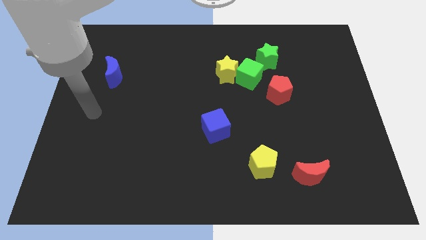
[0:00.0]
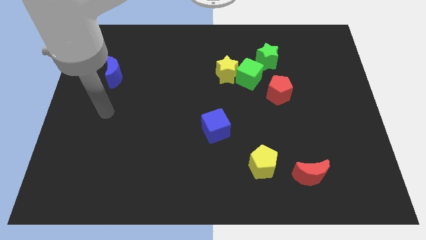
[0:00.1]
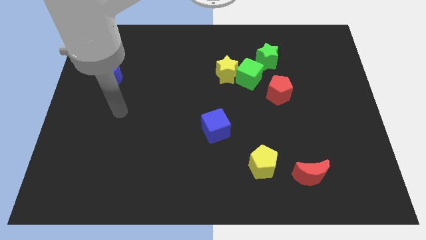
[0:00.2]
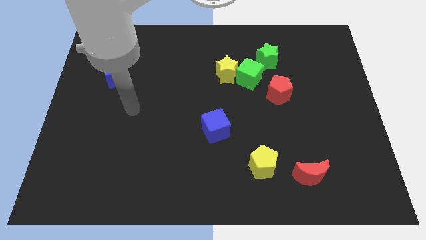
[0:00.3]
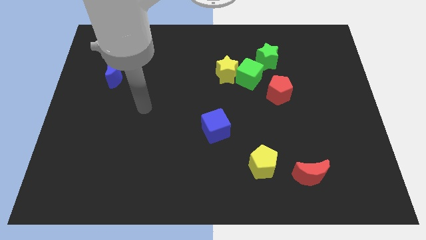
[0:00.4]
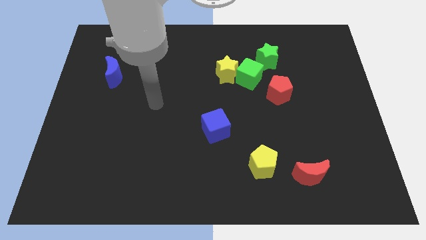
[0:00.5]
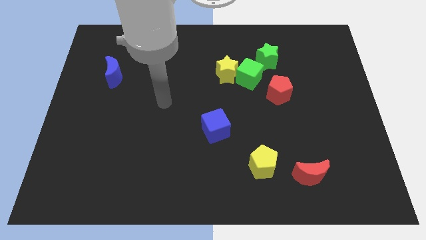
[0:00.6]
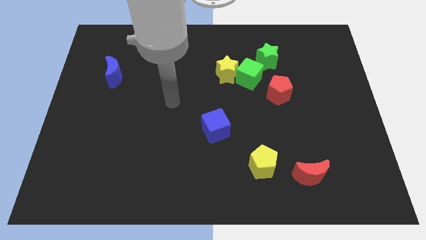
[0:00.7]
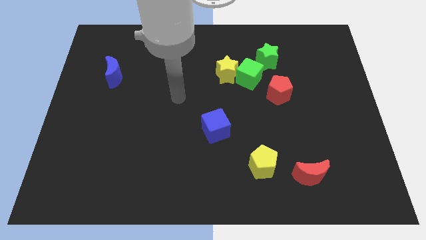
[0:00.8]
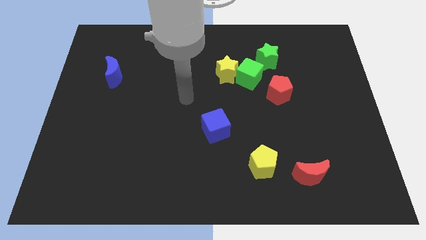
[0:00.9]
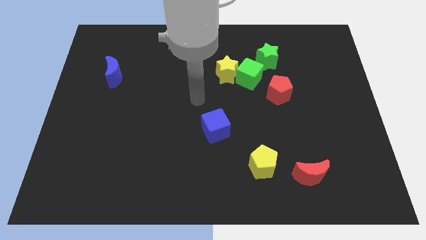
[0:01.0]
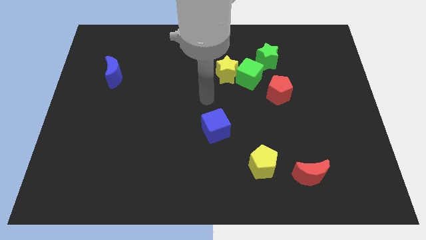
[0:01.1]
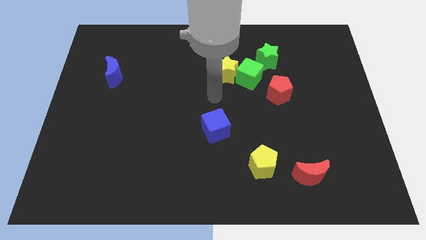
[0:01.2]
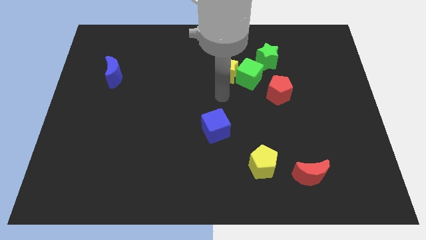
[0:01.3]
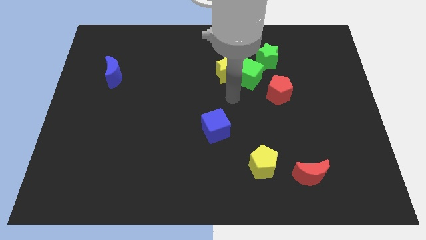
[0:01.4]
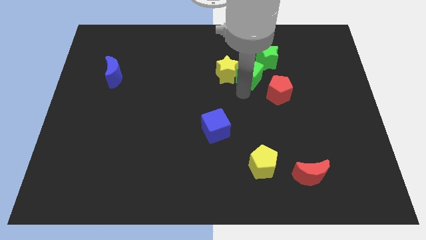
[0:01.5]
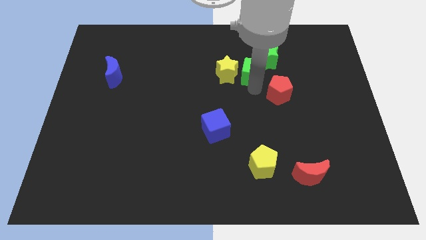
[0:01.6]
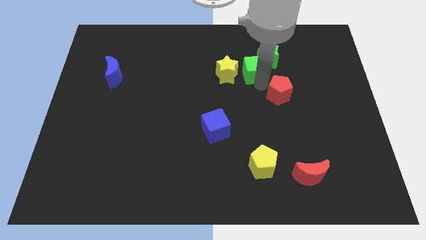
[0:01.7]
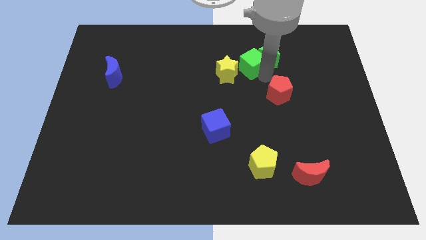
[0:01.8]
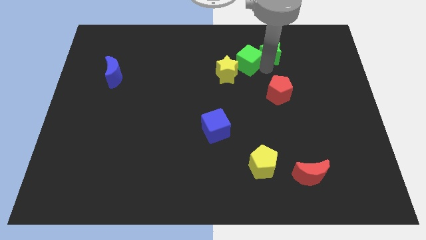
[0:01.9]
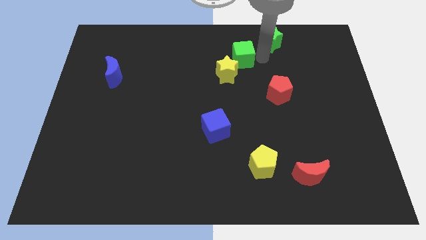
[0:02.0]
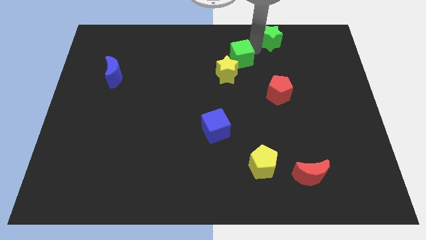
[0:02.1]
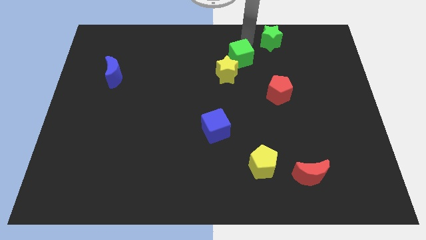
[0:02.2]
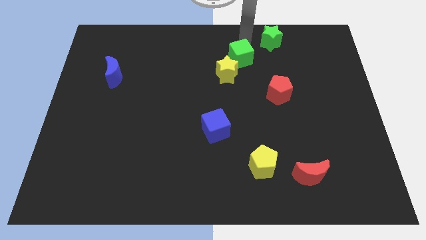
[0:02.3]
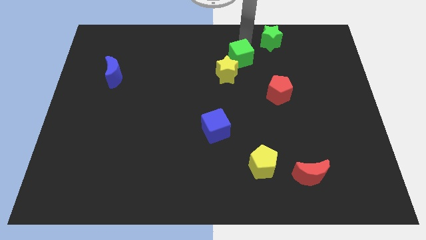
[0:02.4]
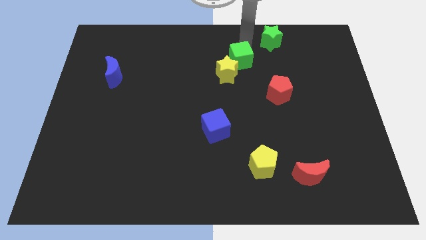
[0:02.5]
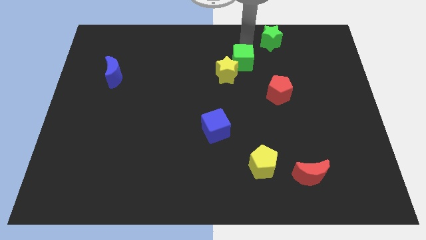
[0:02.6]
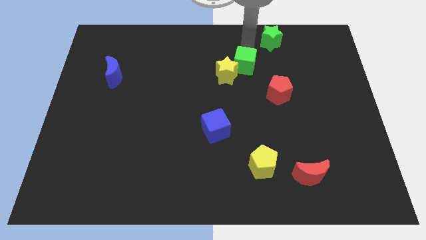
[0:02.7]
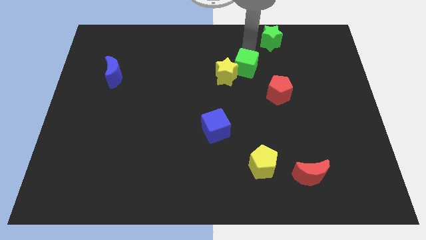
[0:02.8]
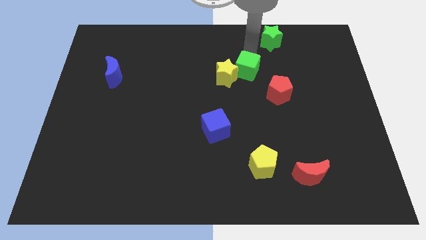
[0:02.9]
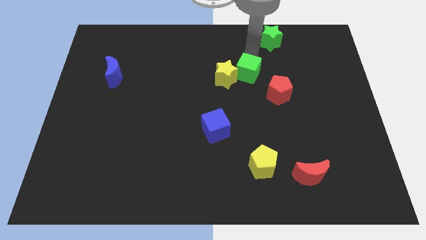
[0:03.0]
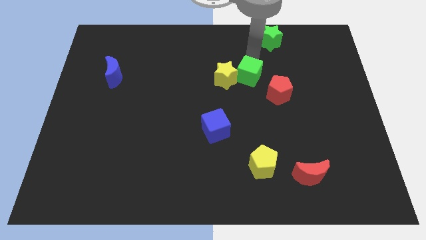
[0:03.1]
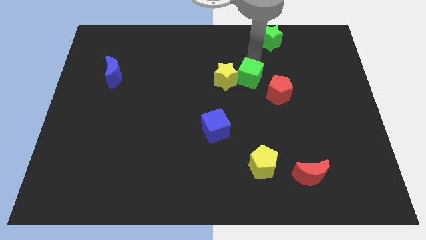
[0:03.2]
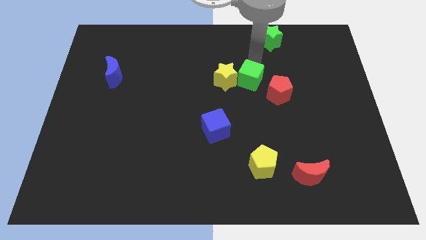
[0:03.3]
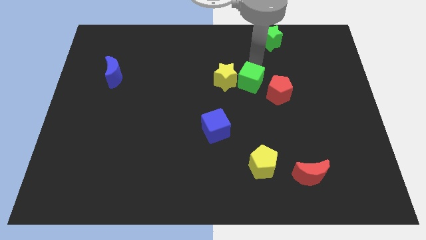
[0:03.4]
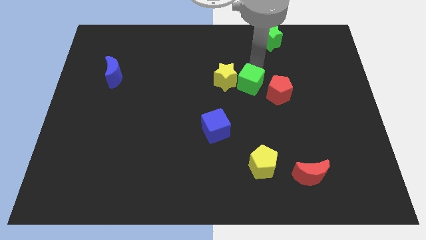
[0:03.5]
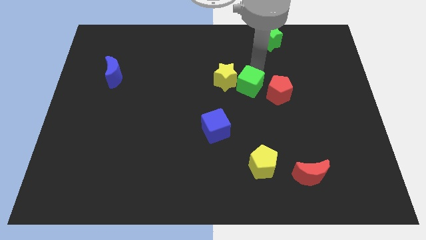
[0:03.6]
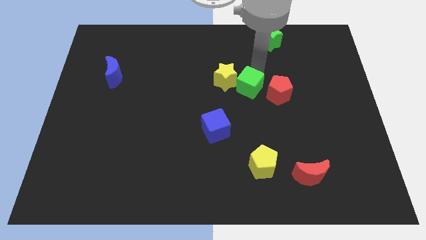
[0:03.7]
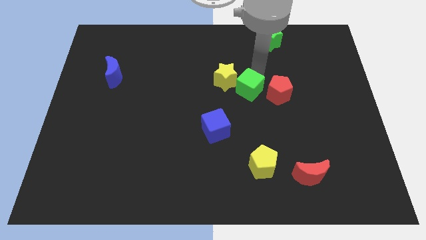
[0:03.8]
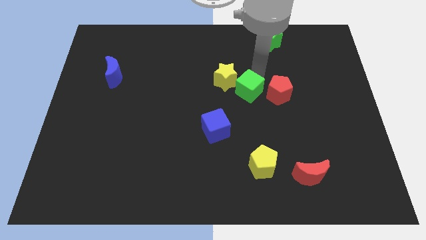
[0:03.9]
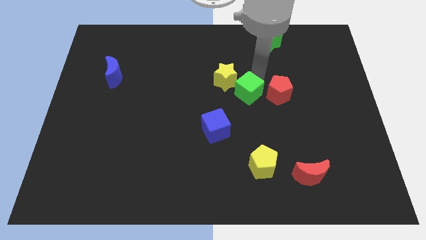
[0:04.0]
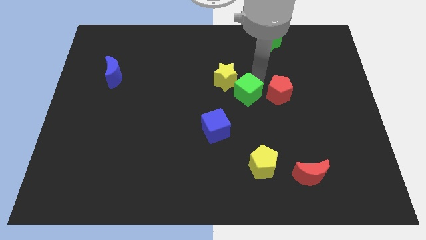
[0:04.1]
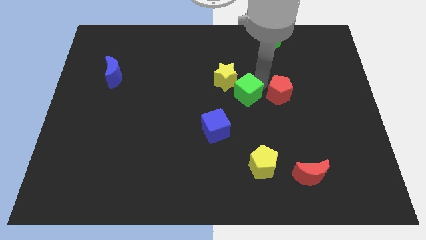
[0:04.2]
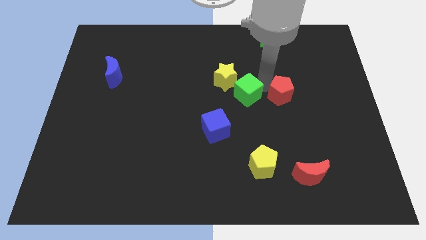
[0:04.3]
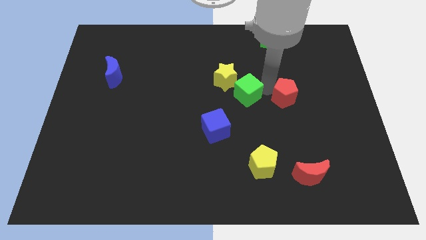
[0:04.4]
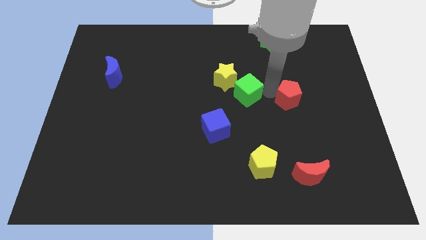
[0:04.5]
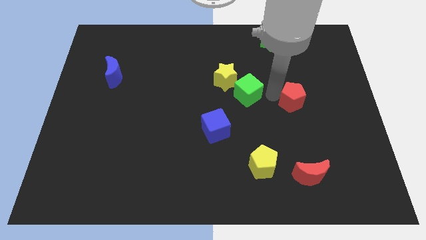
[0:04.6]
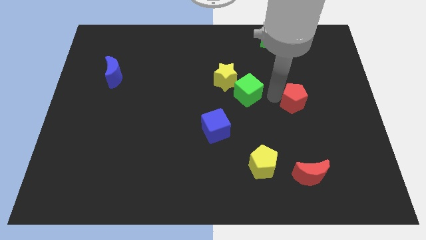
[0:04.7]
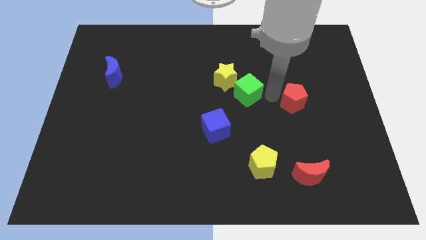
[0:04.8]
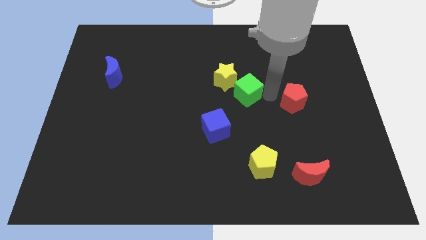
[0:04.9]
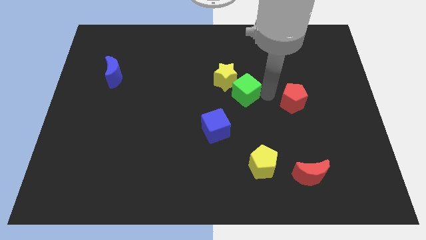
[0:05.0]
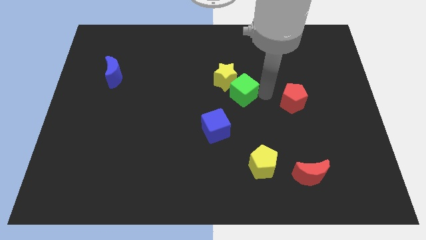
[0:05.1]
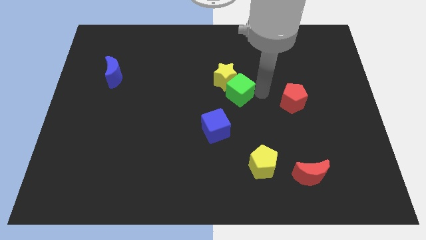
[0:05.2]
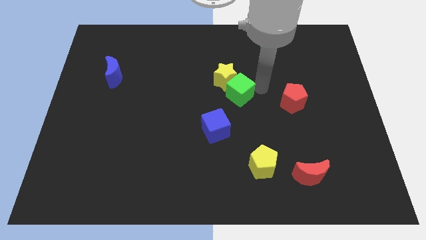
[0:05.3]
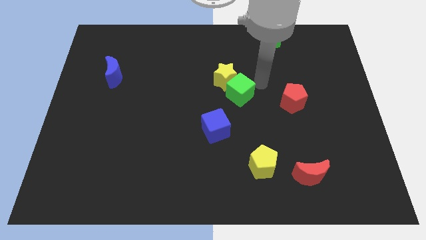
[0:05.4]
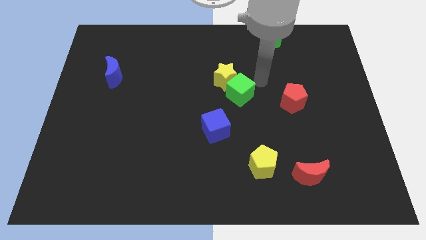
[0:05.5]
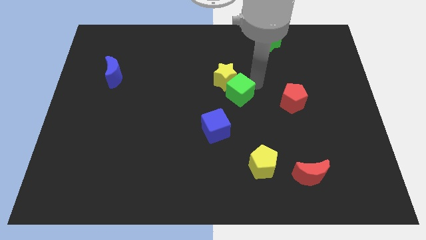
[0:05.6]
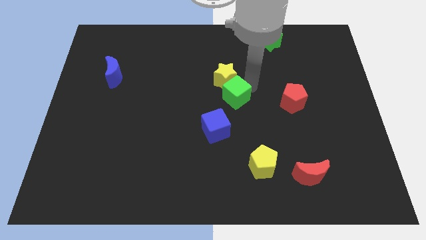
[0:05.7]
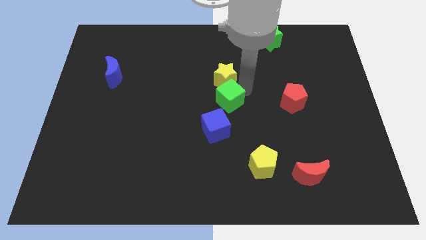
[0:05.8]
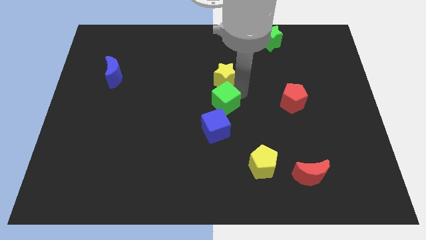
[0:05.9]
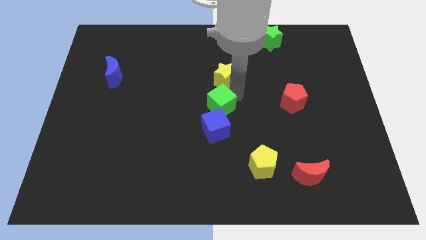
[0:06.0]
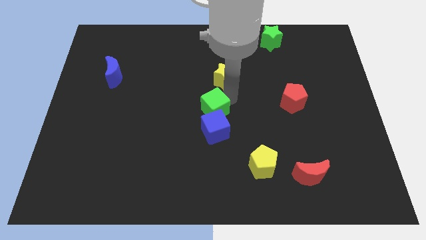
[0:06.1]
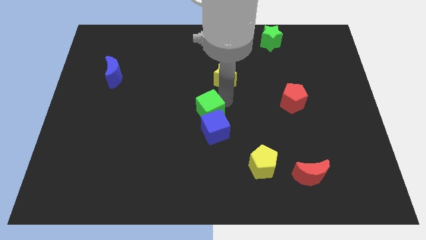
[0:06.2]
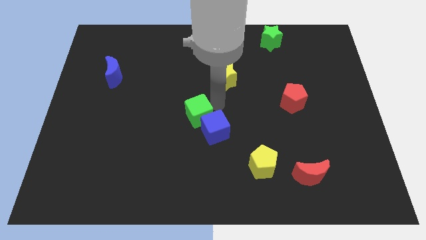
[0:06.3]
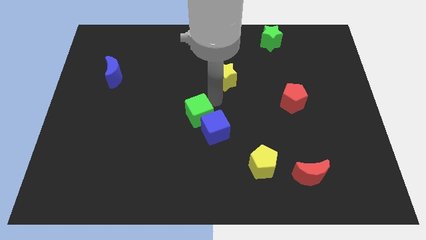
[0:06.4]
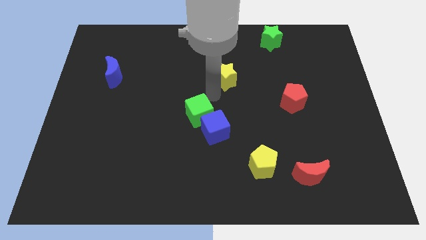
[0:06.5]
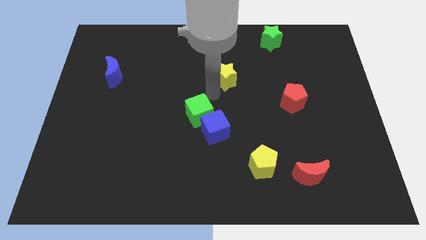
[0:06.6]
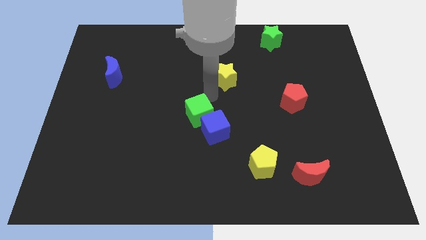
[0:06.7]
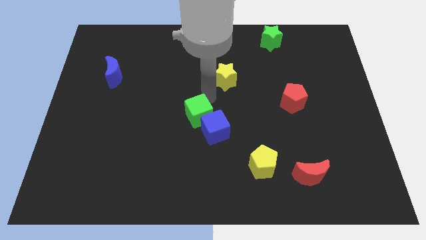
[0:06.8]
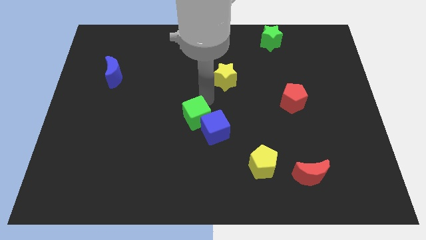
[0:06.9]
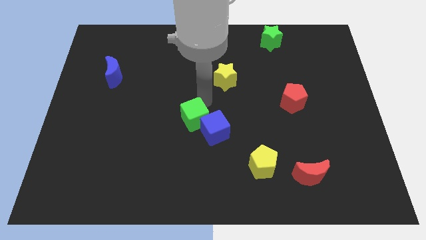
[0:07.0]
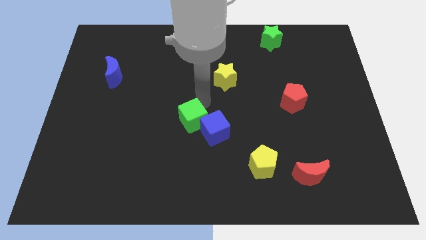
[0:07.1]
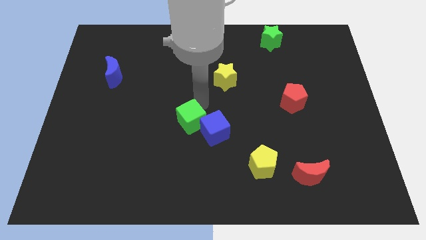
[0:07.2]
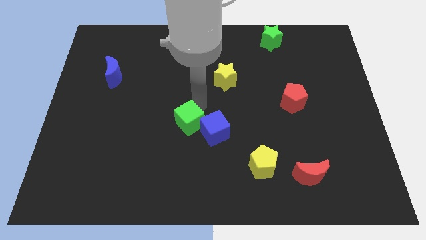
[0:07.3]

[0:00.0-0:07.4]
slide the green cube downwards and left diagonally

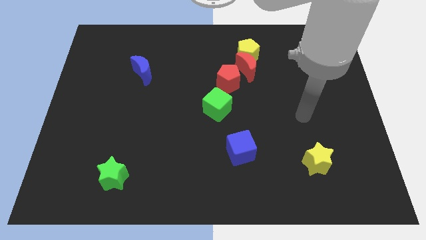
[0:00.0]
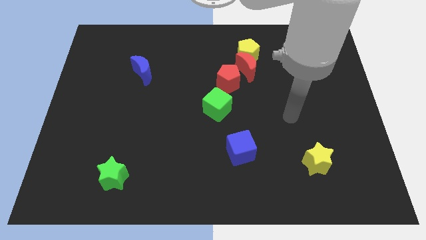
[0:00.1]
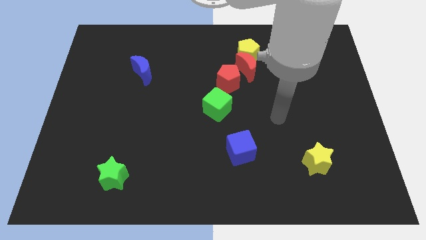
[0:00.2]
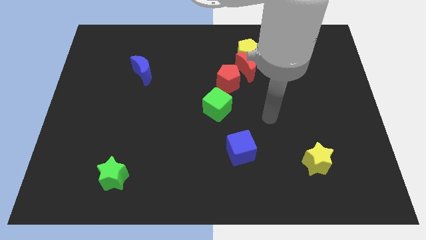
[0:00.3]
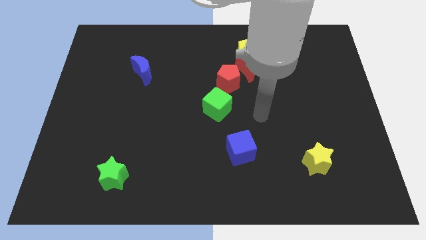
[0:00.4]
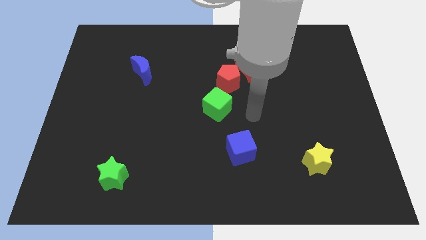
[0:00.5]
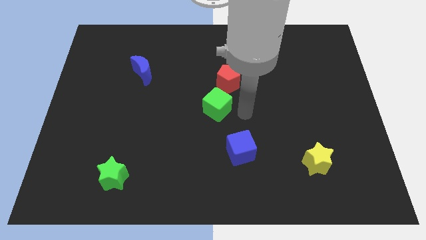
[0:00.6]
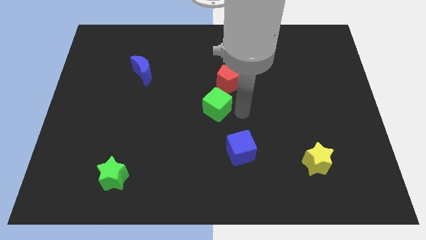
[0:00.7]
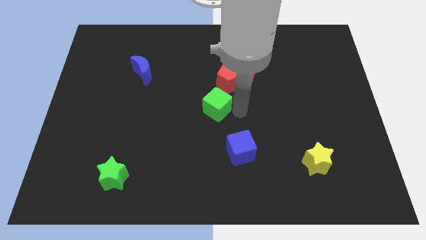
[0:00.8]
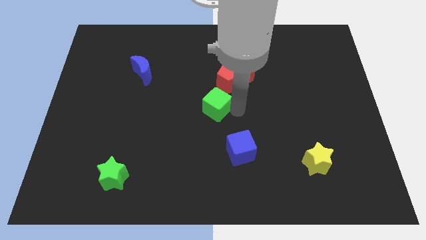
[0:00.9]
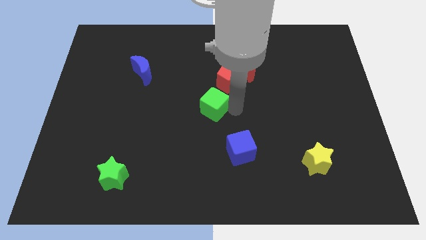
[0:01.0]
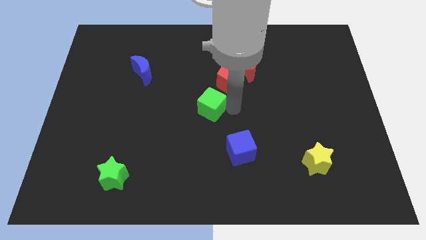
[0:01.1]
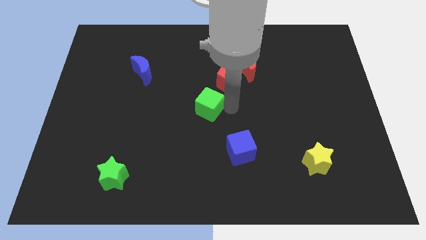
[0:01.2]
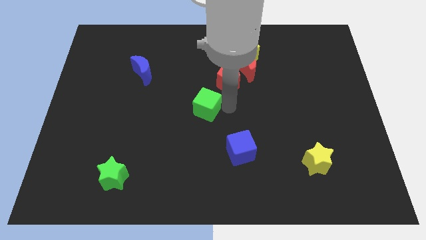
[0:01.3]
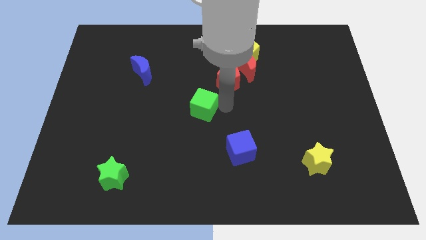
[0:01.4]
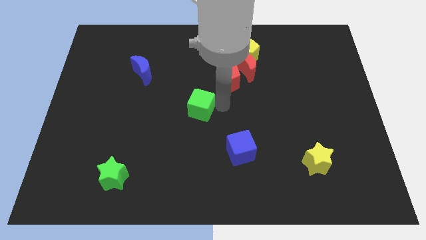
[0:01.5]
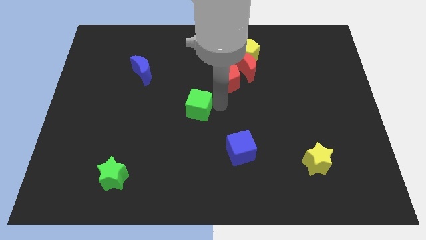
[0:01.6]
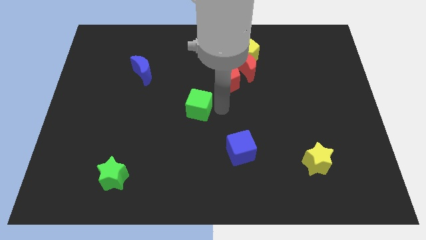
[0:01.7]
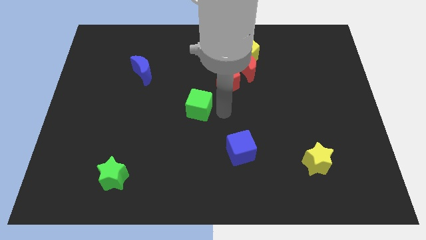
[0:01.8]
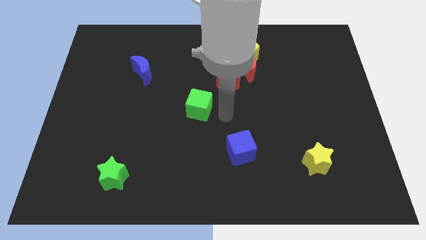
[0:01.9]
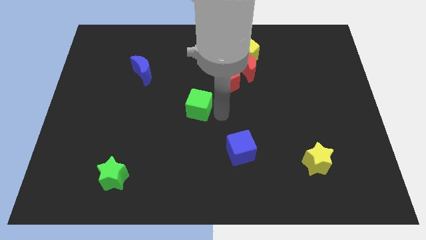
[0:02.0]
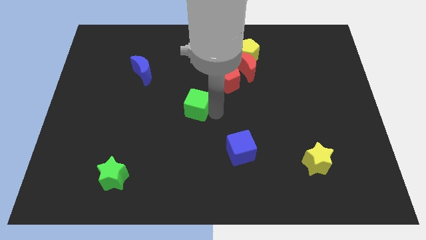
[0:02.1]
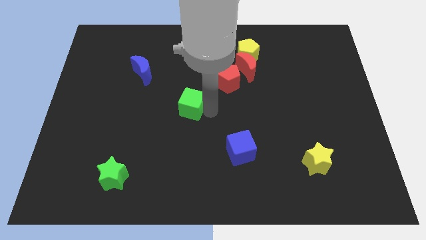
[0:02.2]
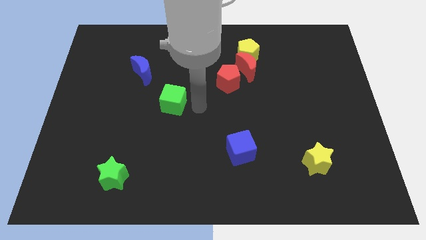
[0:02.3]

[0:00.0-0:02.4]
push the green cube somewhat to the left
